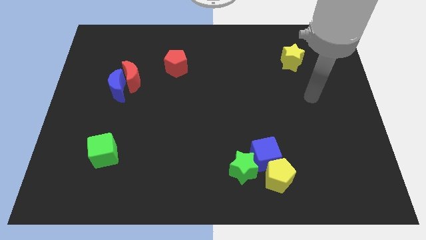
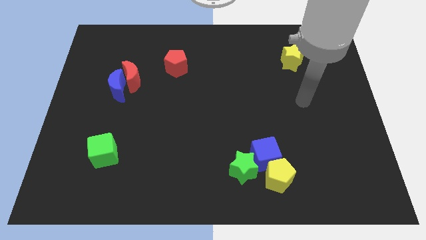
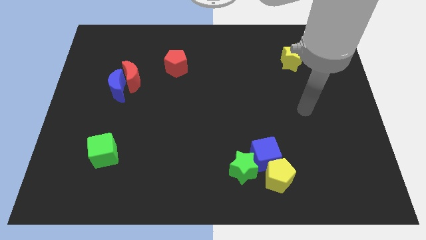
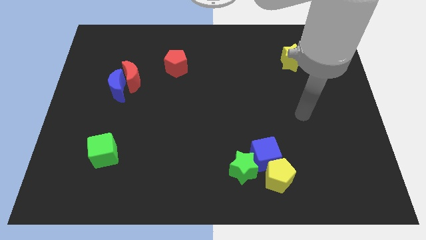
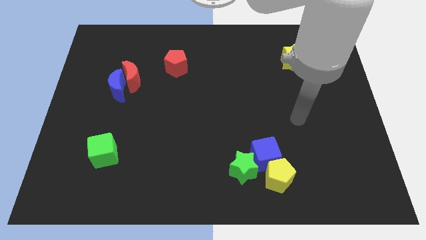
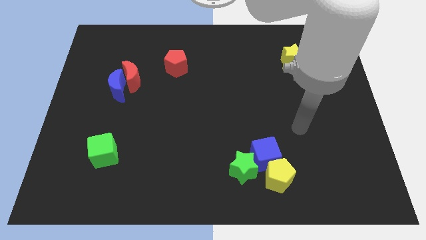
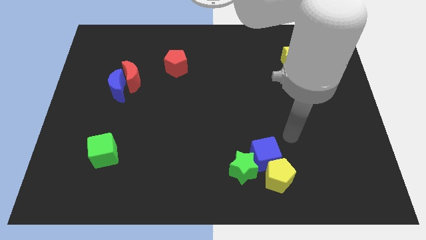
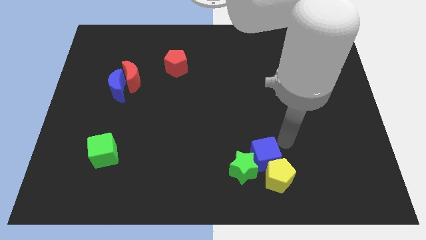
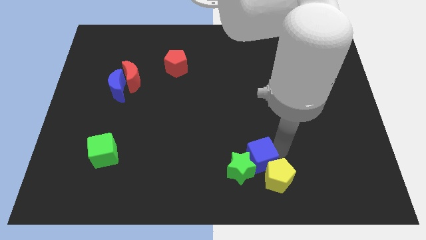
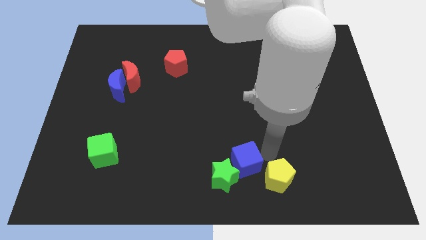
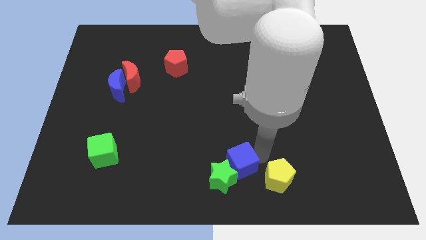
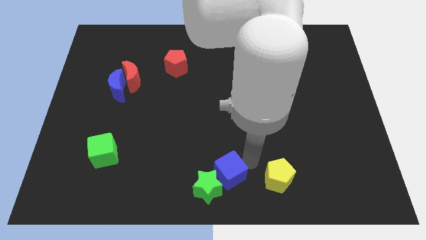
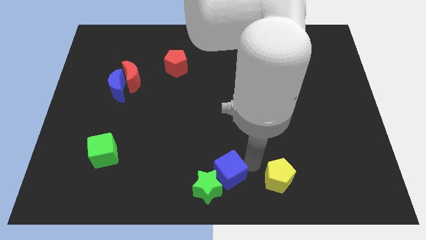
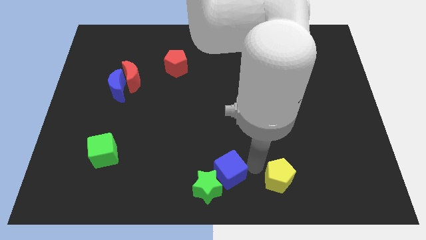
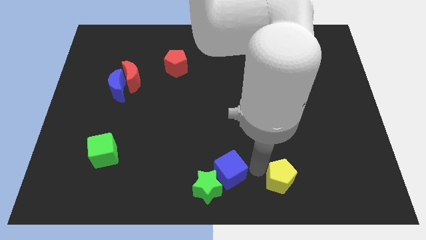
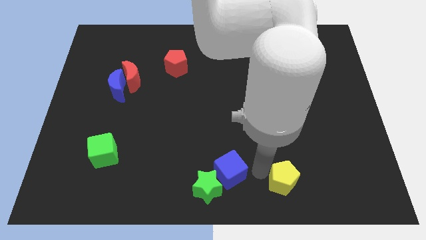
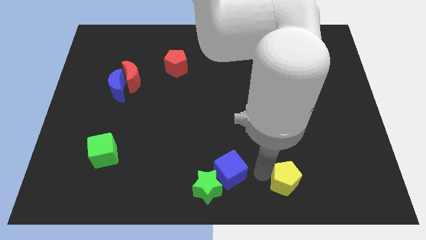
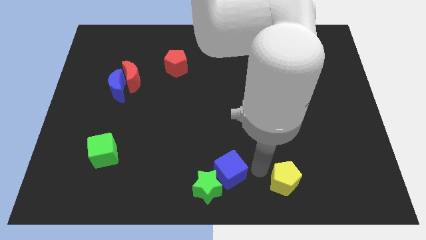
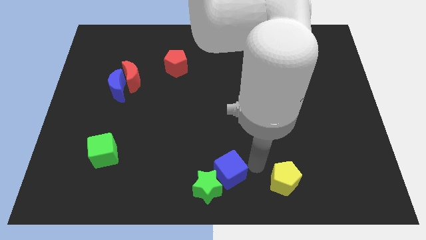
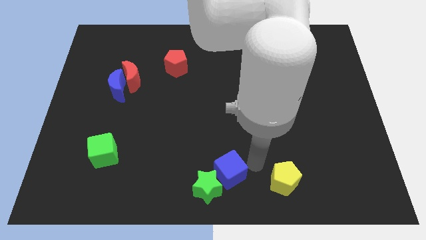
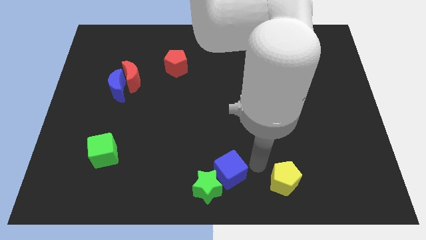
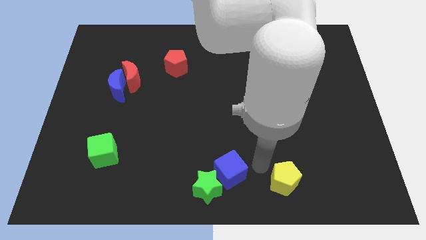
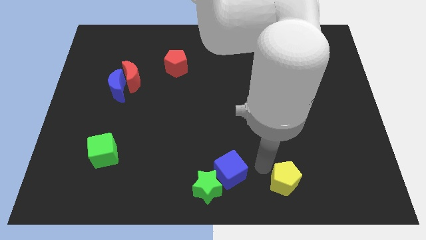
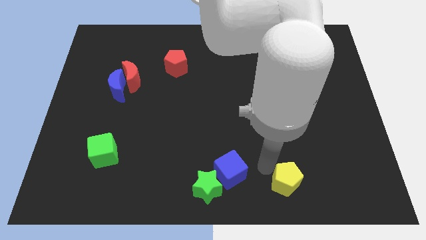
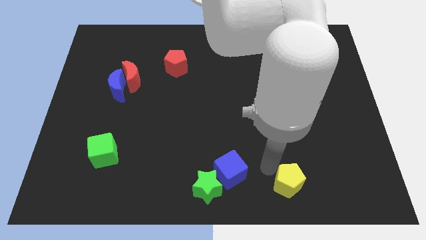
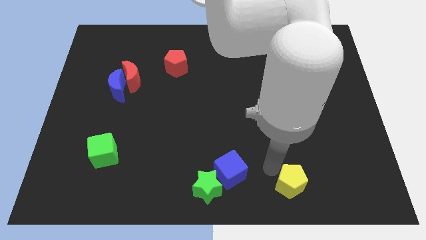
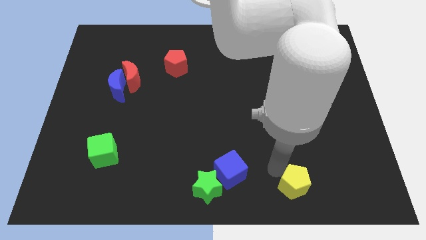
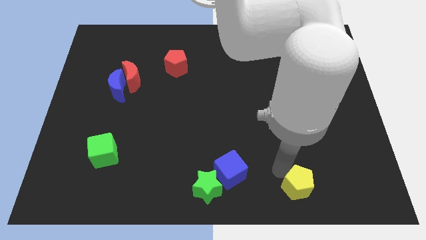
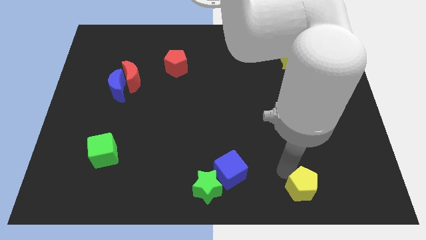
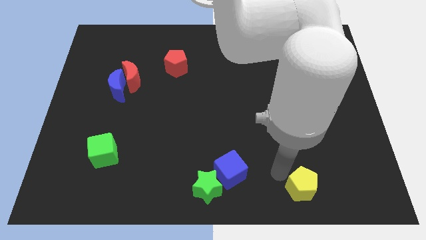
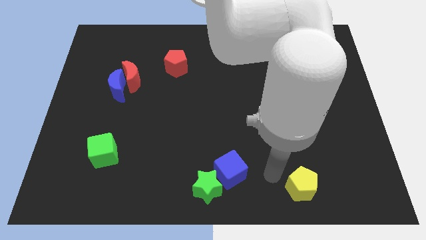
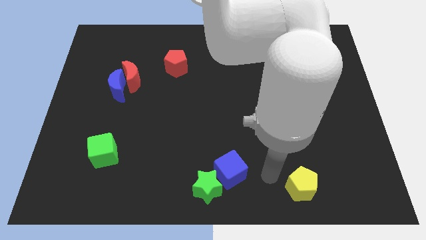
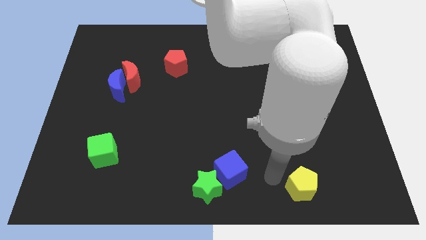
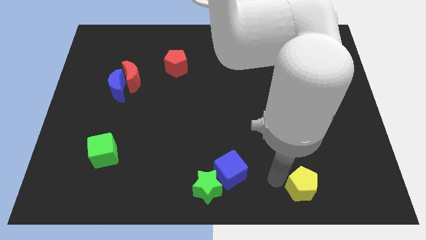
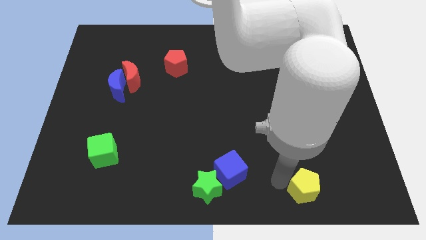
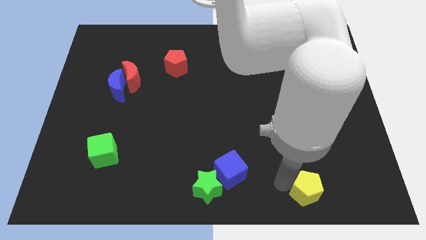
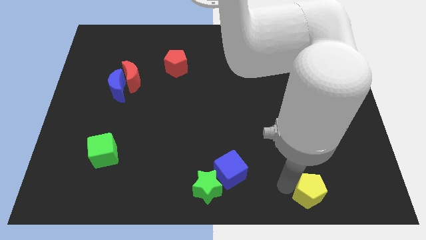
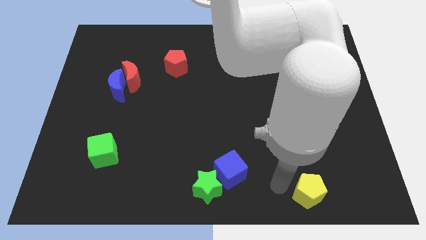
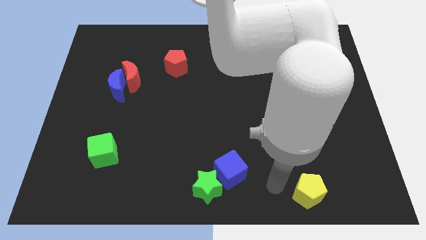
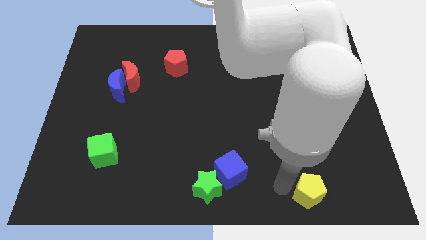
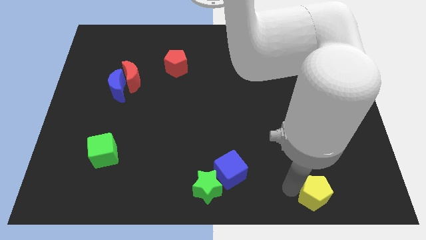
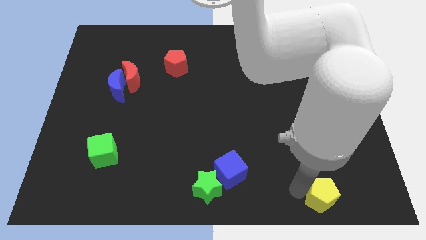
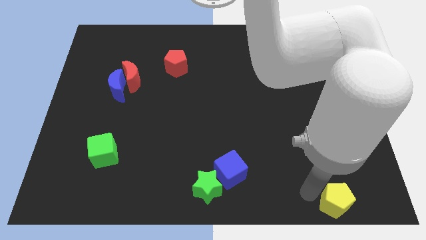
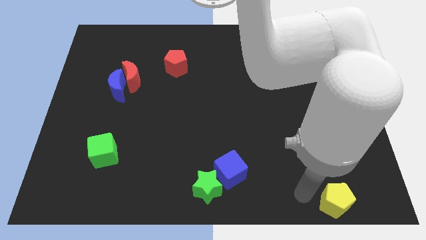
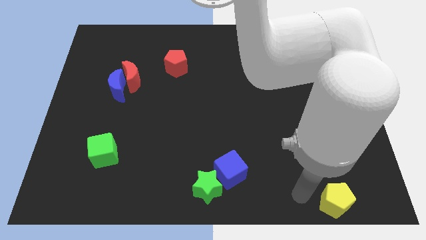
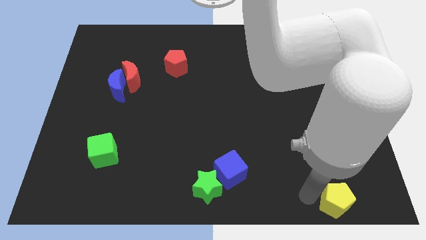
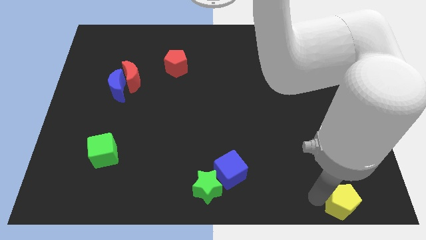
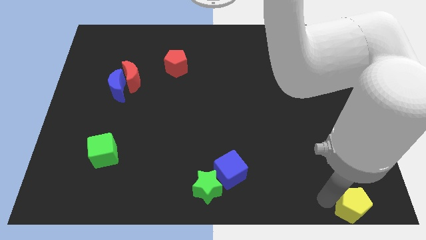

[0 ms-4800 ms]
move the yellow pentagon to the bottom right of the board

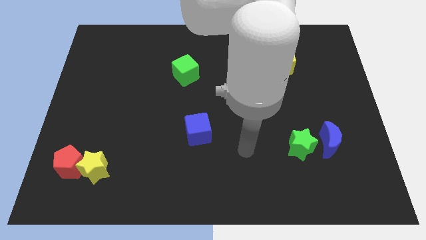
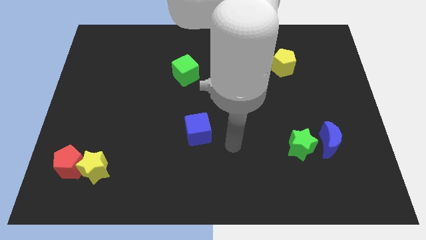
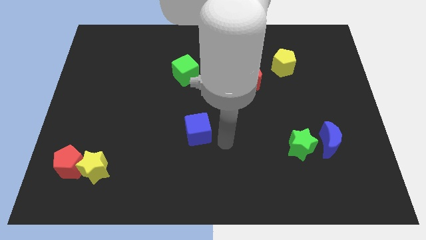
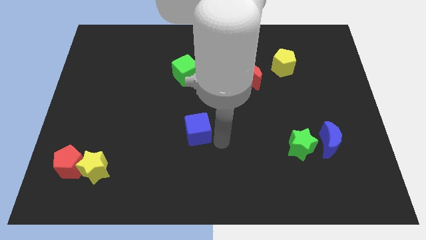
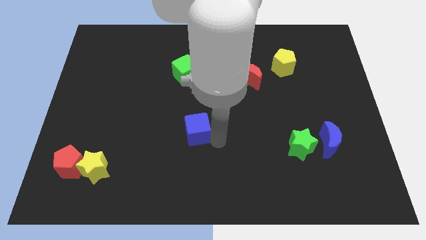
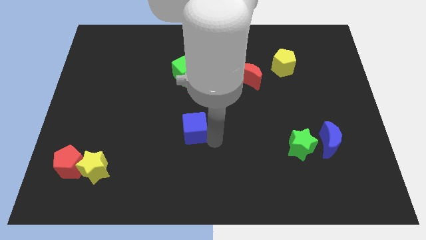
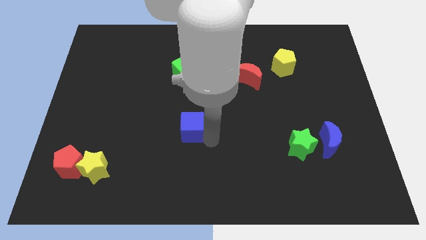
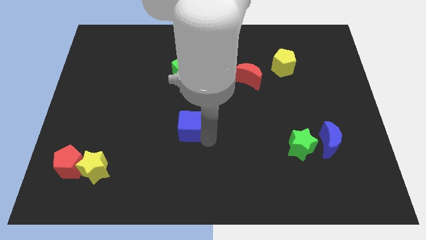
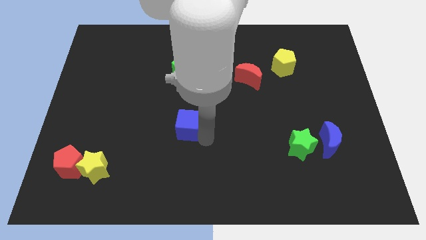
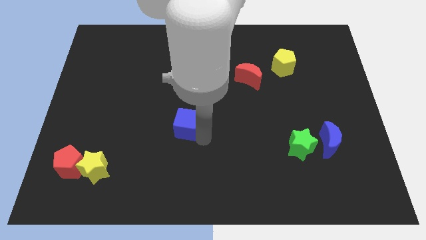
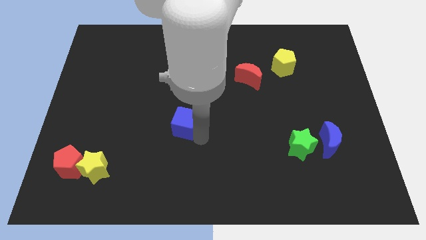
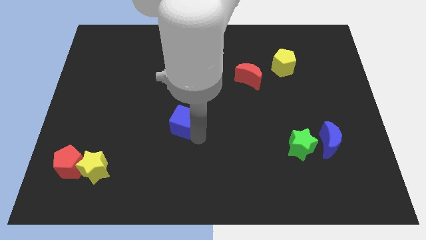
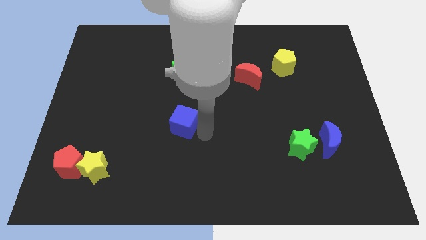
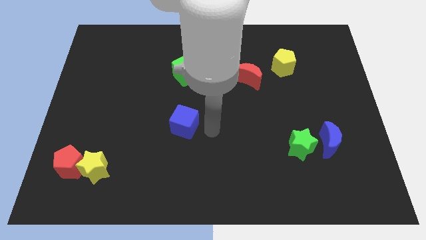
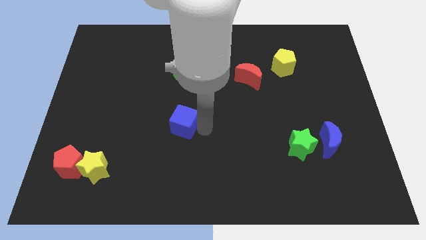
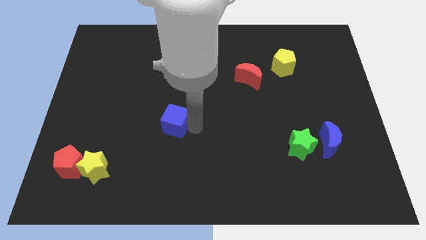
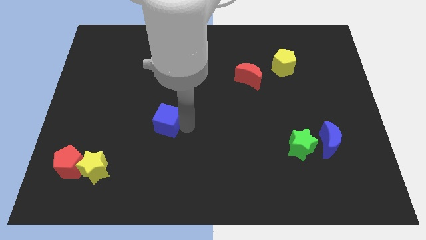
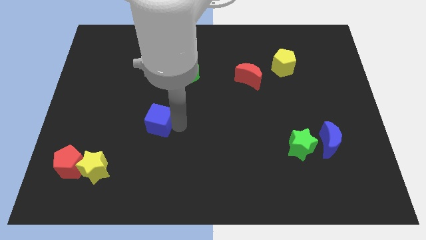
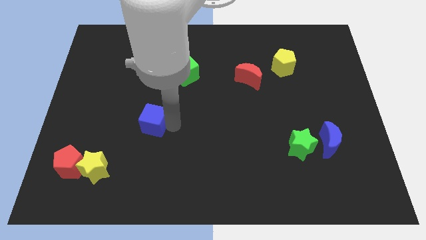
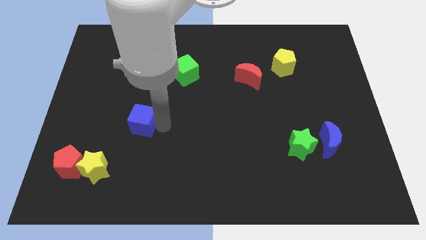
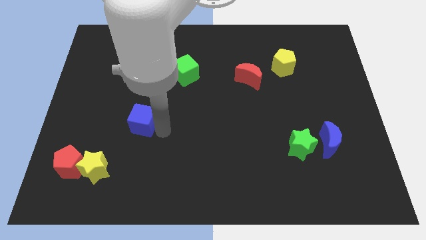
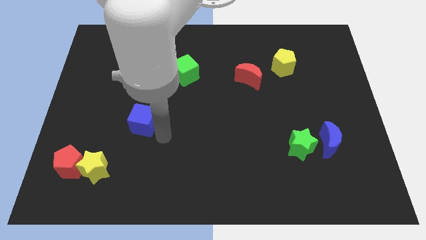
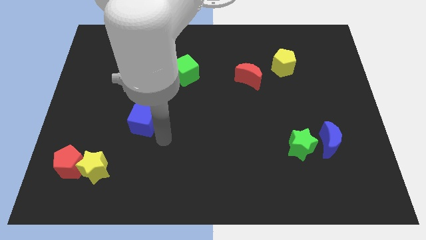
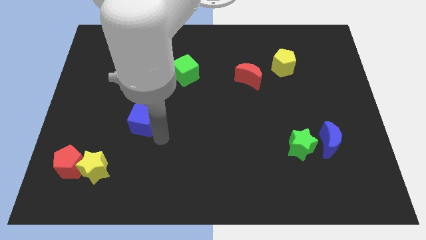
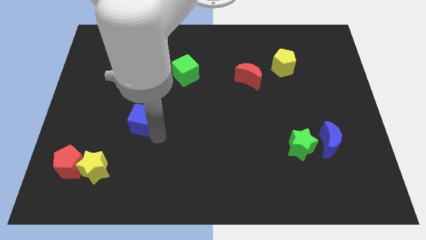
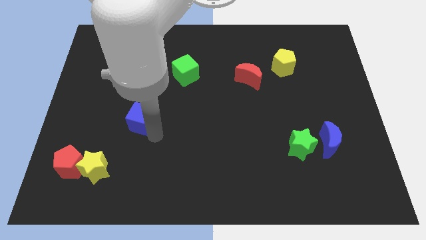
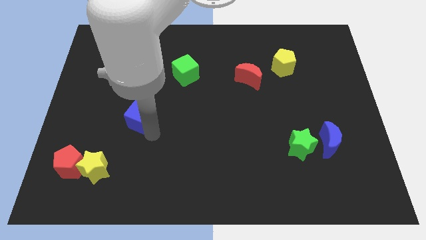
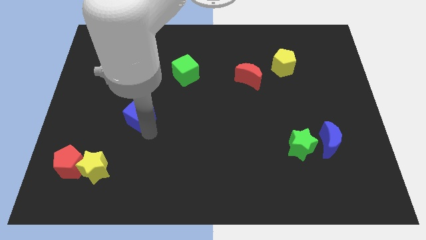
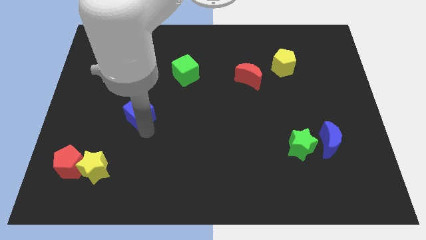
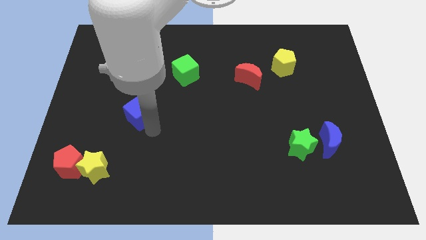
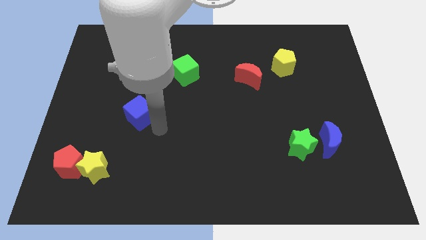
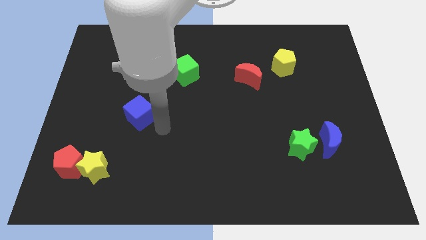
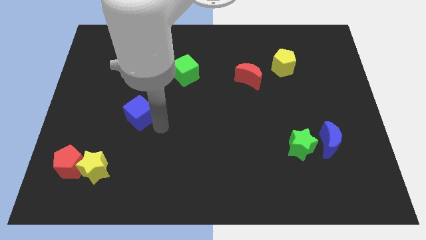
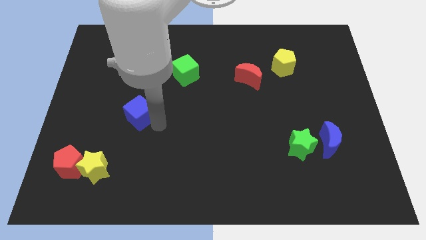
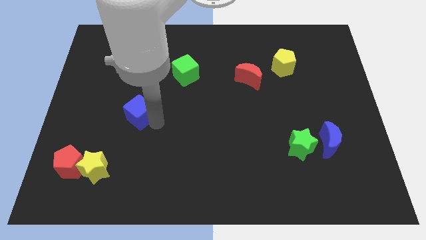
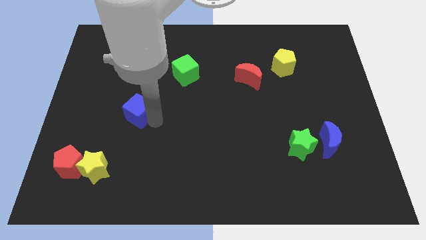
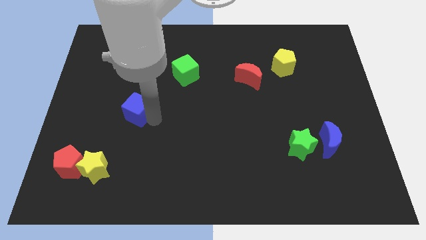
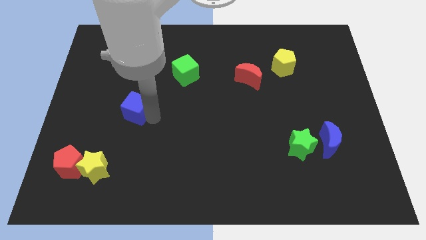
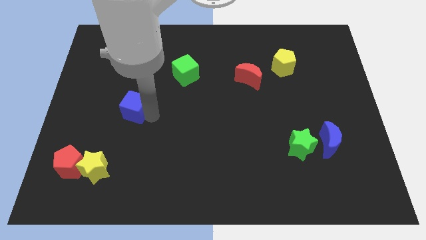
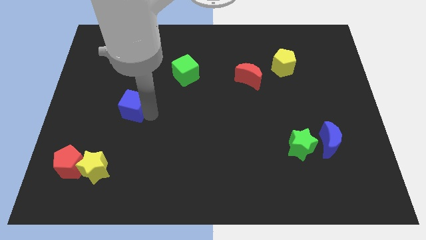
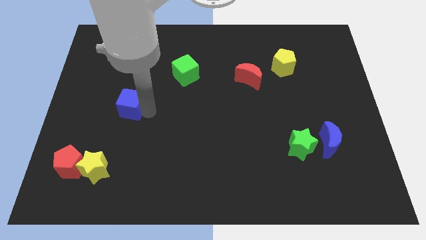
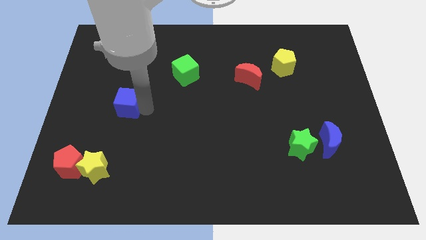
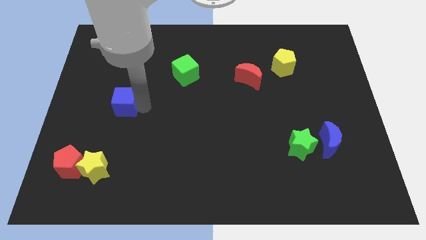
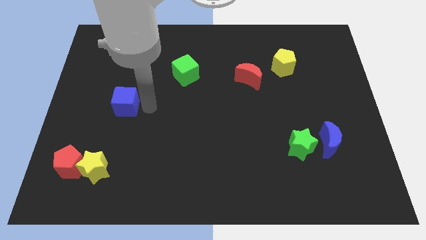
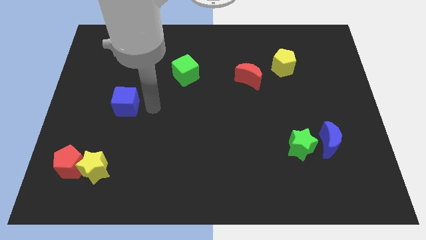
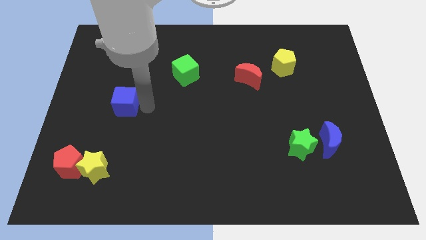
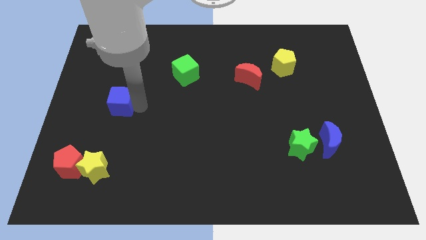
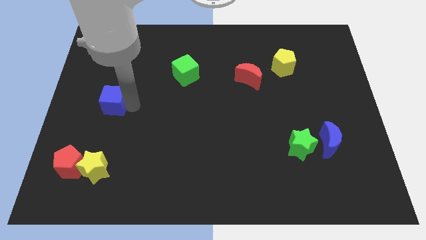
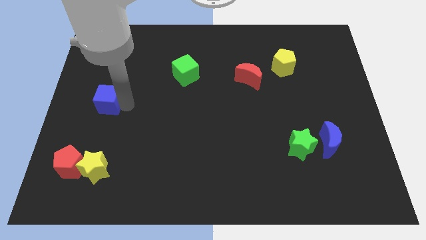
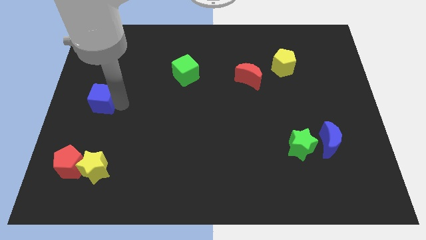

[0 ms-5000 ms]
move the blue cube to the left side
